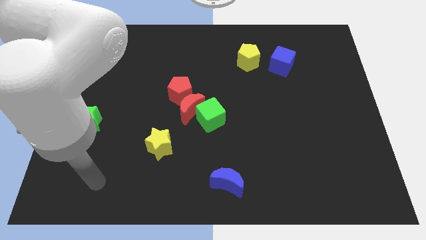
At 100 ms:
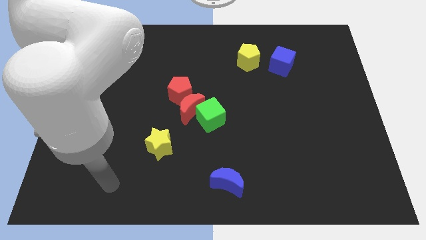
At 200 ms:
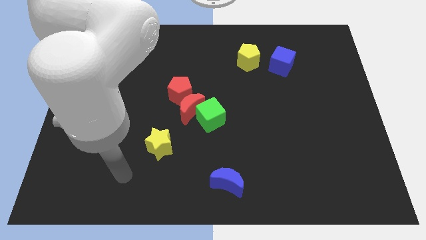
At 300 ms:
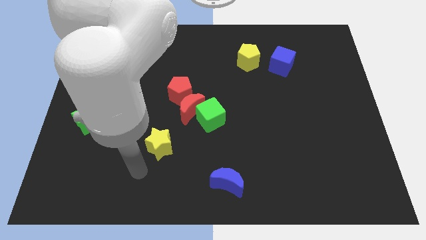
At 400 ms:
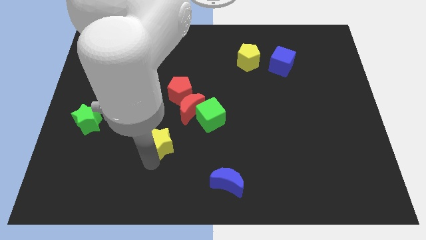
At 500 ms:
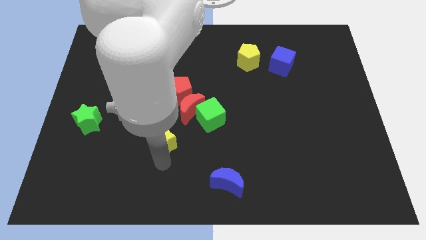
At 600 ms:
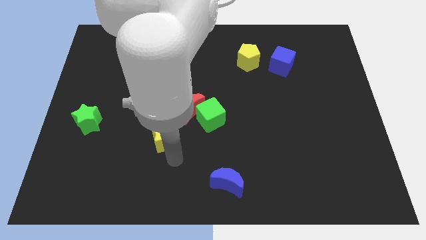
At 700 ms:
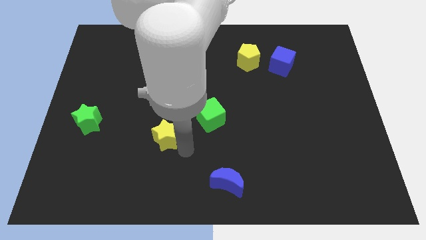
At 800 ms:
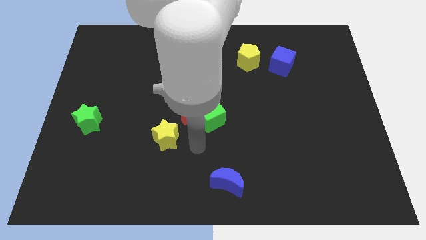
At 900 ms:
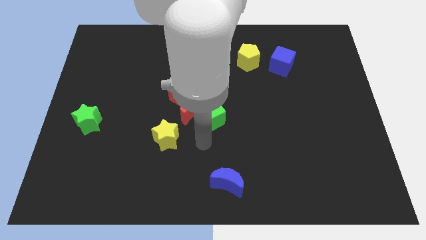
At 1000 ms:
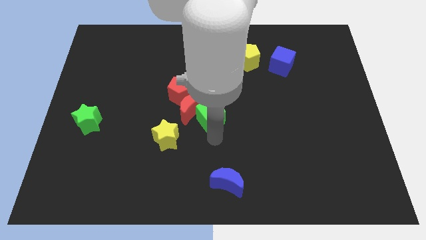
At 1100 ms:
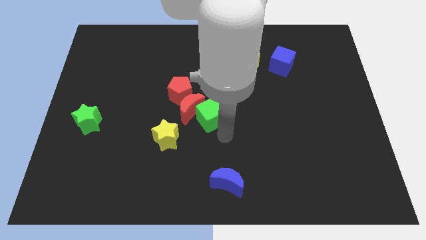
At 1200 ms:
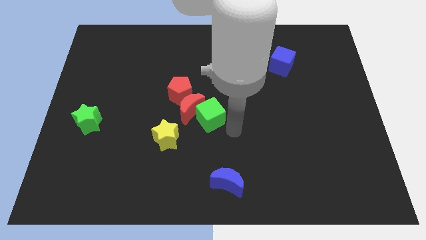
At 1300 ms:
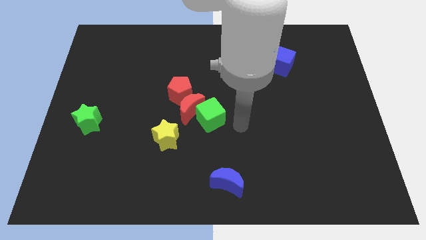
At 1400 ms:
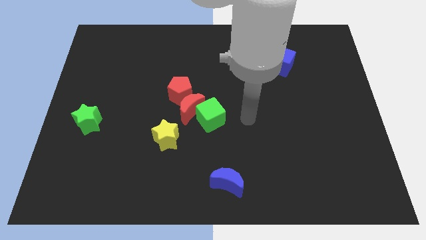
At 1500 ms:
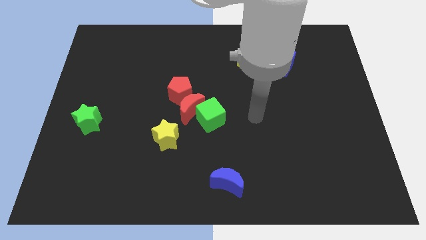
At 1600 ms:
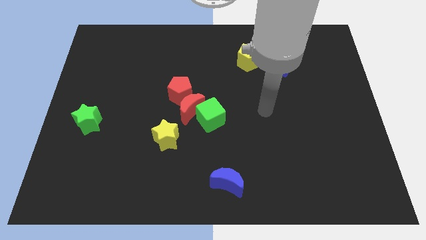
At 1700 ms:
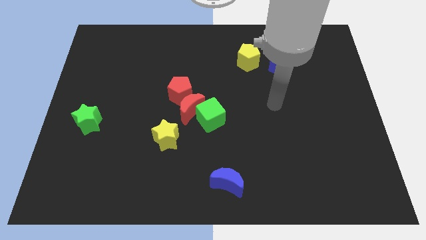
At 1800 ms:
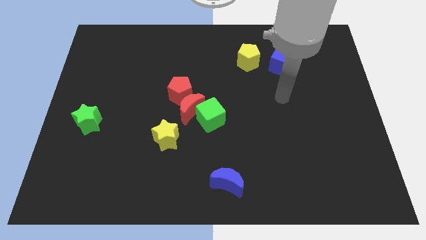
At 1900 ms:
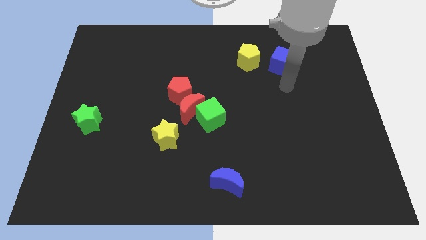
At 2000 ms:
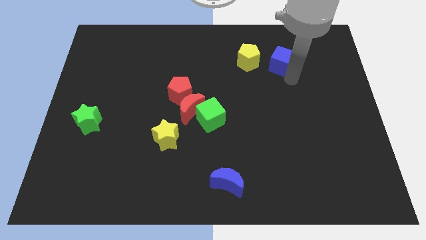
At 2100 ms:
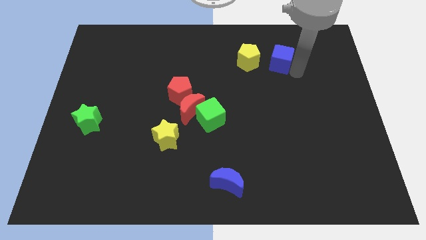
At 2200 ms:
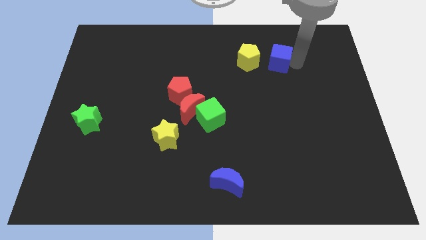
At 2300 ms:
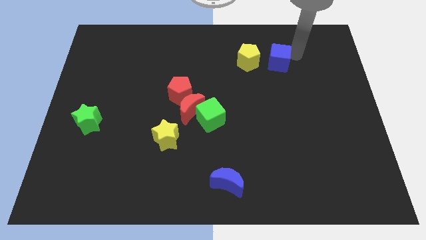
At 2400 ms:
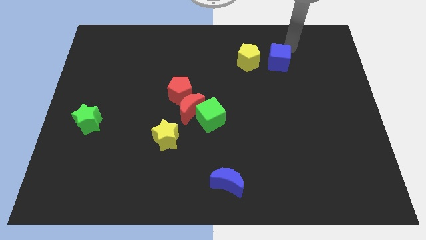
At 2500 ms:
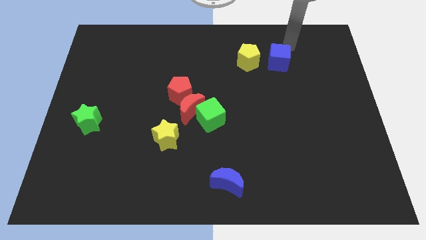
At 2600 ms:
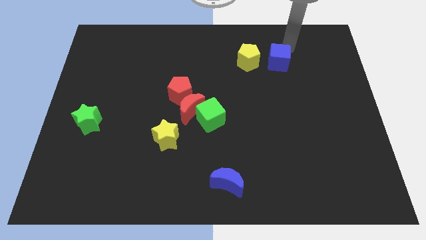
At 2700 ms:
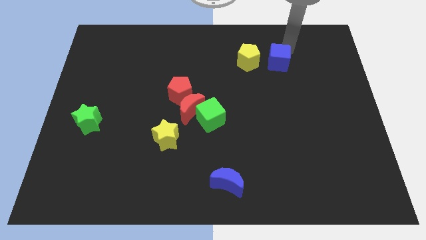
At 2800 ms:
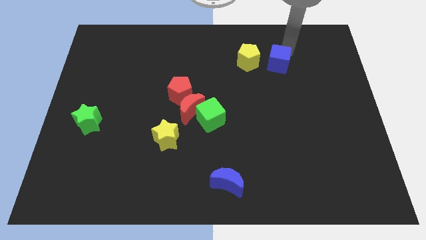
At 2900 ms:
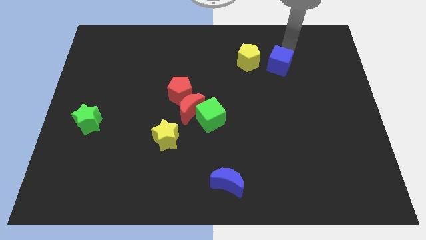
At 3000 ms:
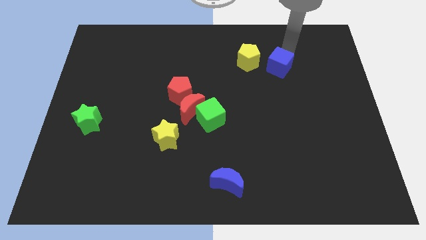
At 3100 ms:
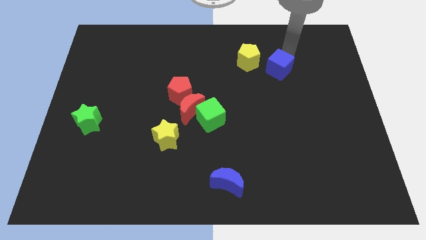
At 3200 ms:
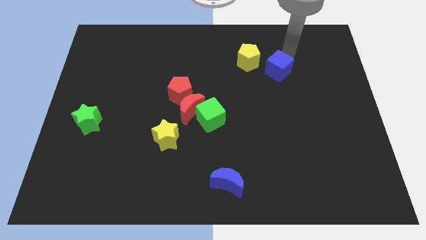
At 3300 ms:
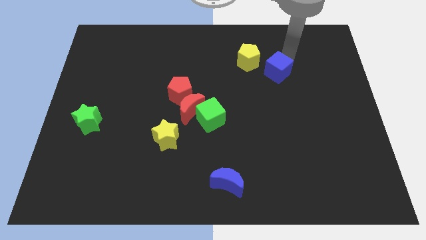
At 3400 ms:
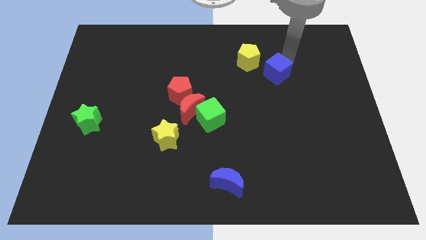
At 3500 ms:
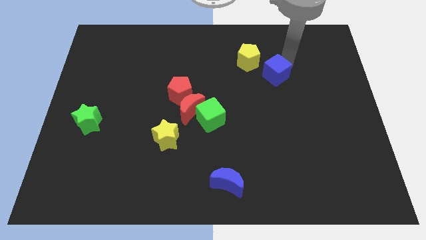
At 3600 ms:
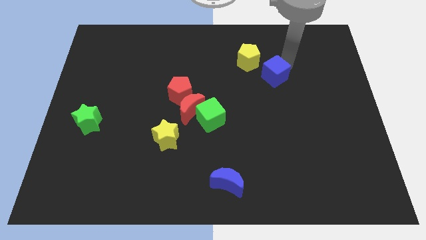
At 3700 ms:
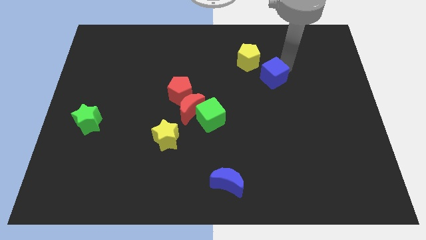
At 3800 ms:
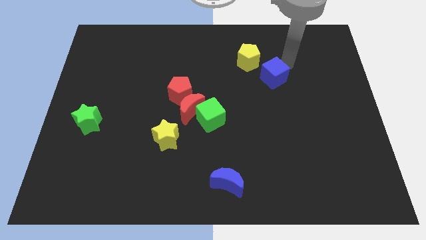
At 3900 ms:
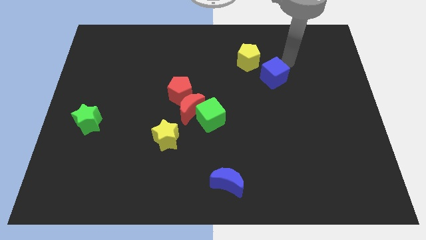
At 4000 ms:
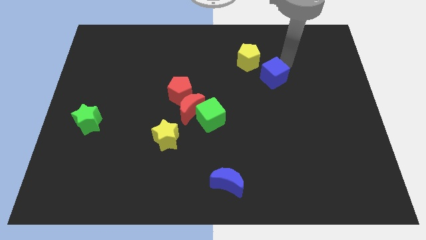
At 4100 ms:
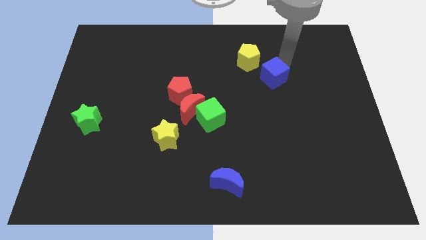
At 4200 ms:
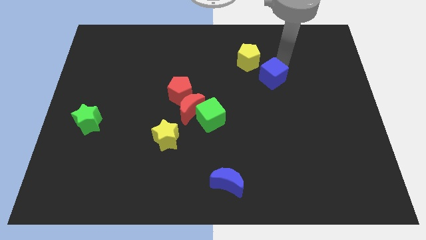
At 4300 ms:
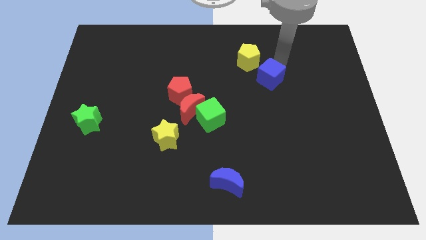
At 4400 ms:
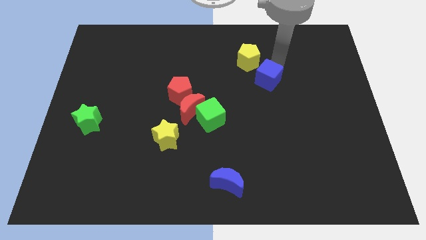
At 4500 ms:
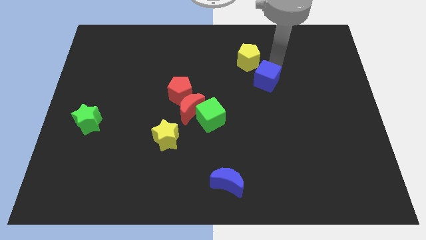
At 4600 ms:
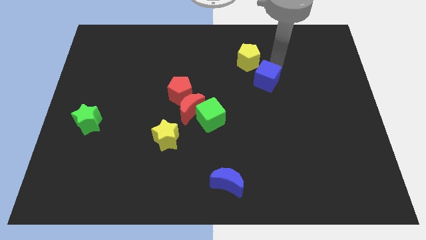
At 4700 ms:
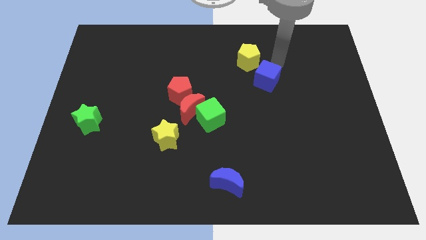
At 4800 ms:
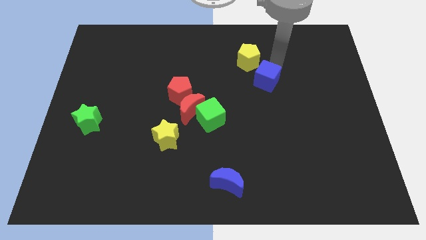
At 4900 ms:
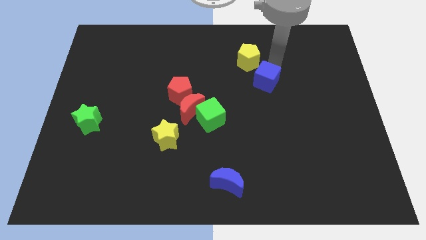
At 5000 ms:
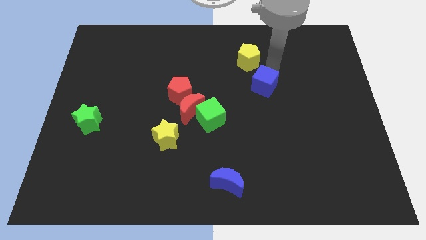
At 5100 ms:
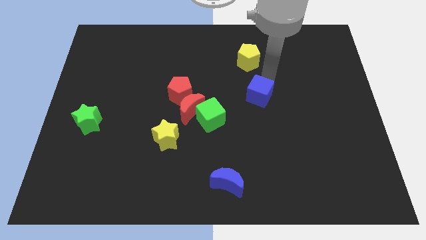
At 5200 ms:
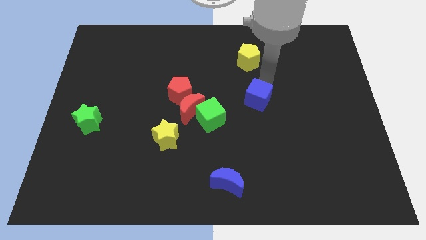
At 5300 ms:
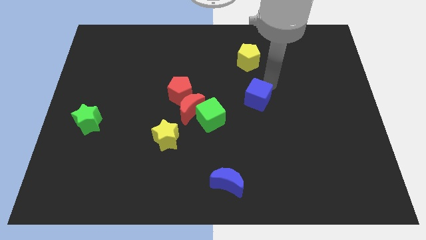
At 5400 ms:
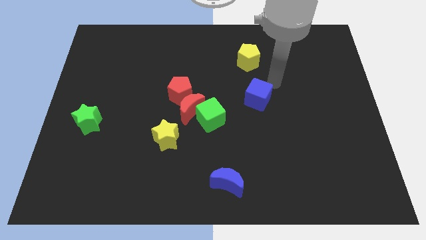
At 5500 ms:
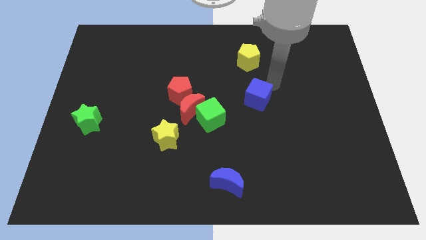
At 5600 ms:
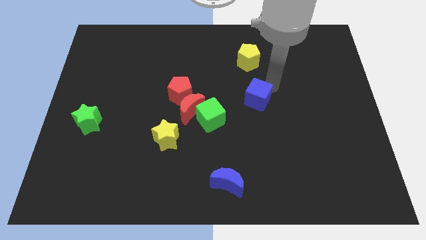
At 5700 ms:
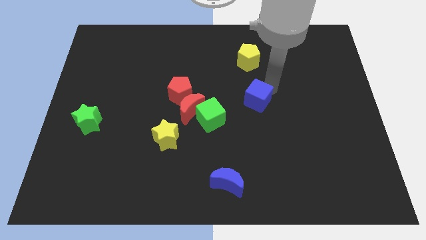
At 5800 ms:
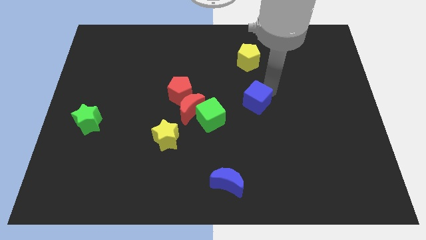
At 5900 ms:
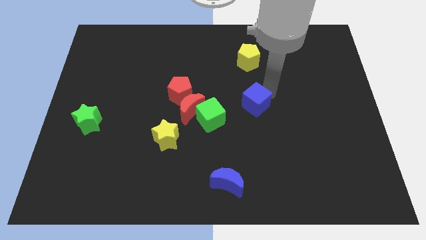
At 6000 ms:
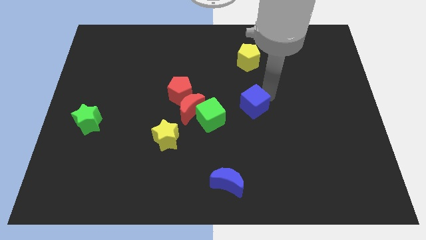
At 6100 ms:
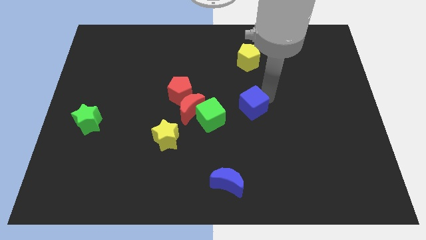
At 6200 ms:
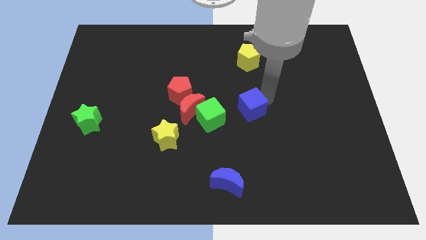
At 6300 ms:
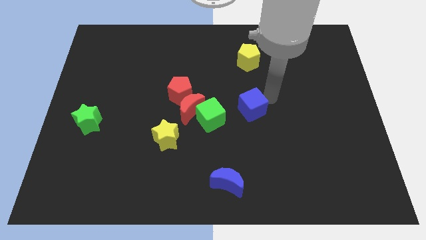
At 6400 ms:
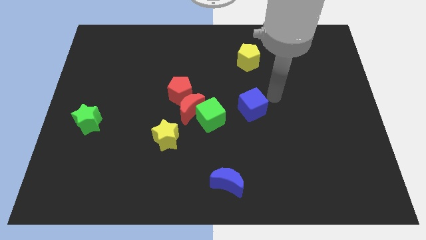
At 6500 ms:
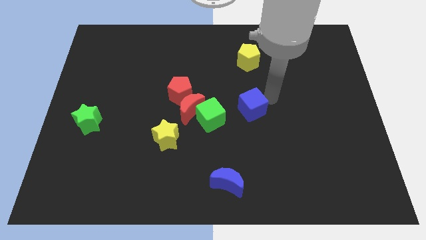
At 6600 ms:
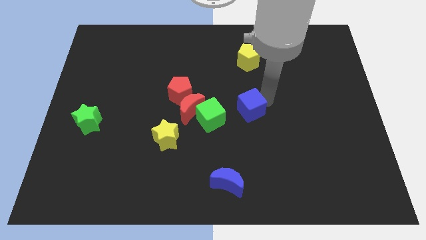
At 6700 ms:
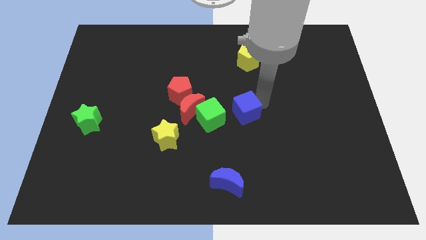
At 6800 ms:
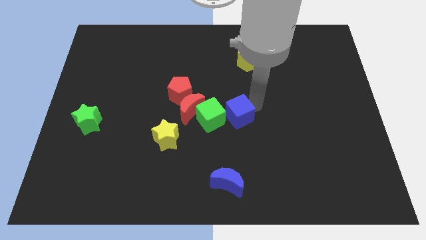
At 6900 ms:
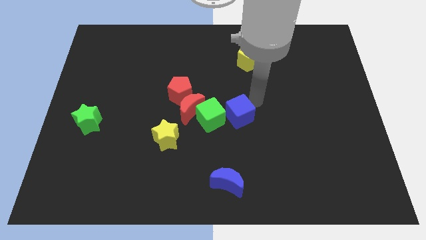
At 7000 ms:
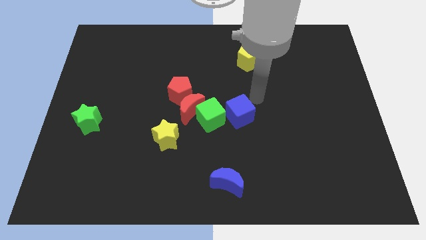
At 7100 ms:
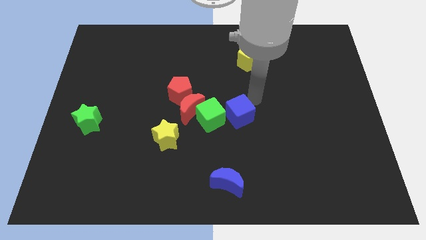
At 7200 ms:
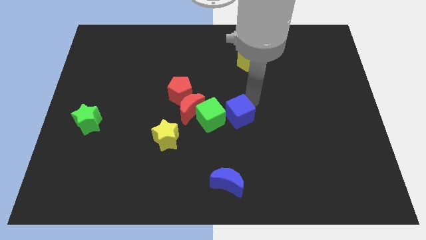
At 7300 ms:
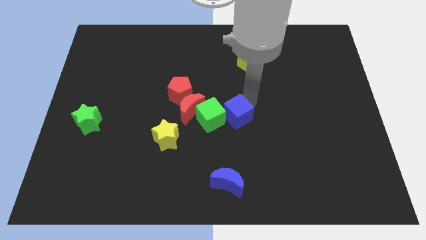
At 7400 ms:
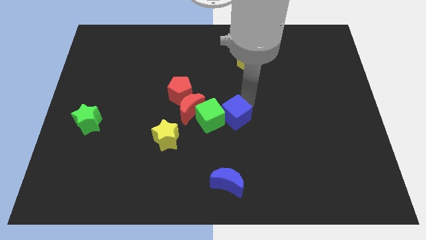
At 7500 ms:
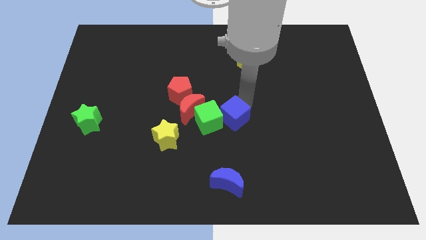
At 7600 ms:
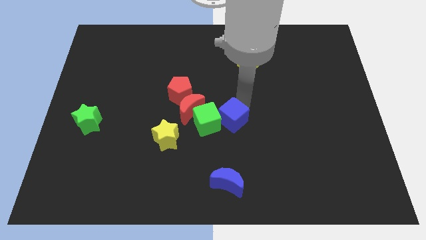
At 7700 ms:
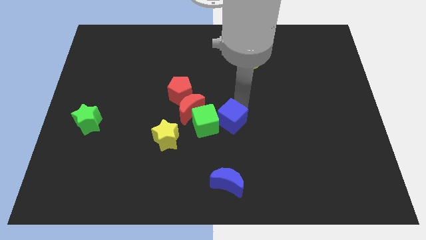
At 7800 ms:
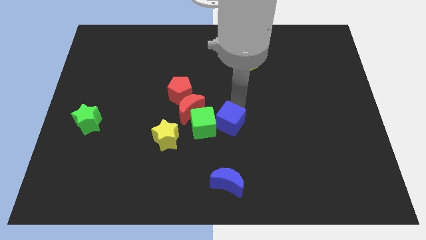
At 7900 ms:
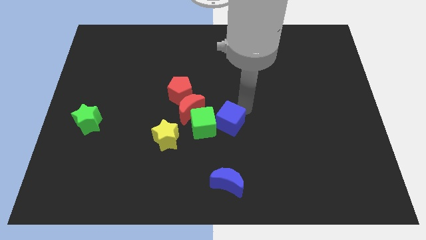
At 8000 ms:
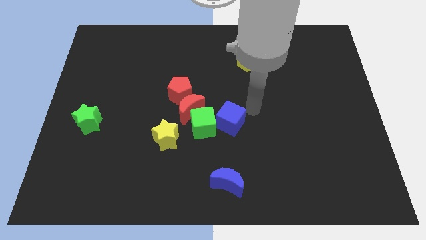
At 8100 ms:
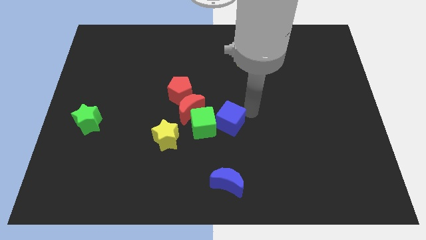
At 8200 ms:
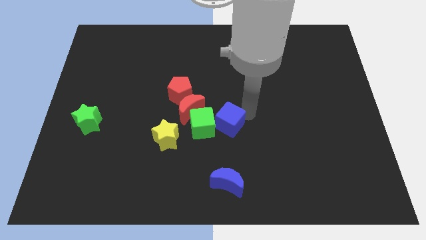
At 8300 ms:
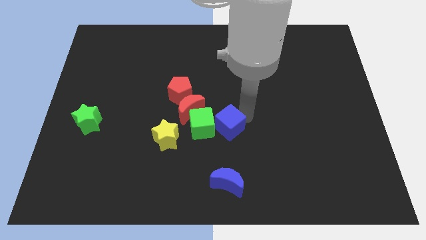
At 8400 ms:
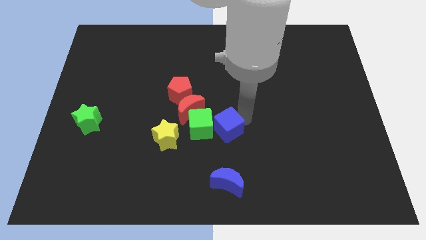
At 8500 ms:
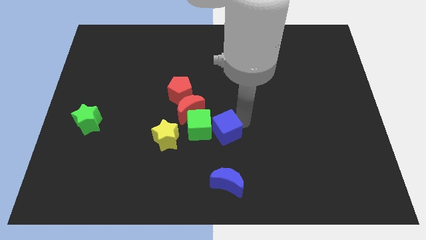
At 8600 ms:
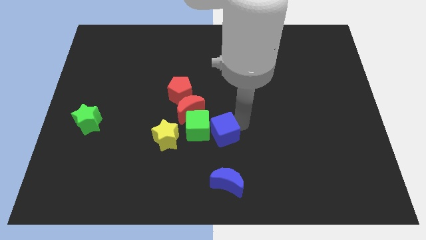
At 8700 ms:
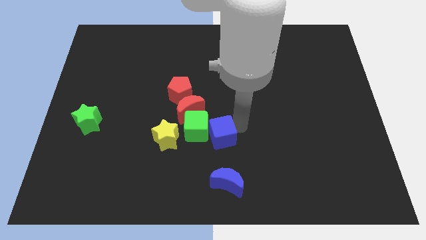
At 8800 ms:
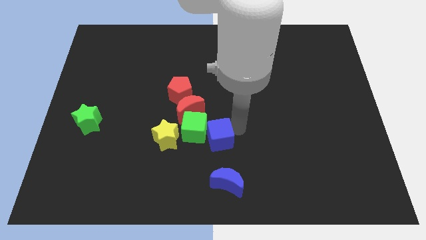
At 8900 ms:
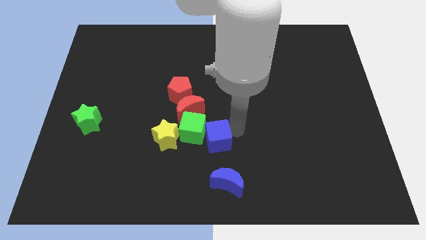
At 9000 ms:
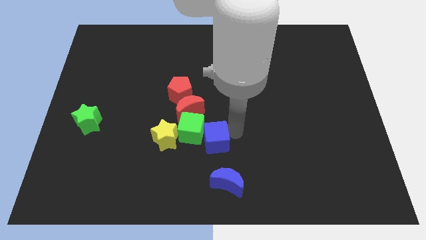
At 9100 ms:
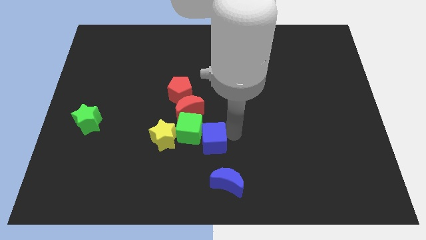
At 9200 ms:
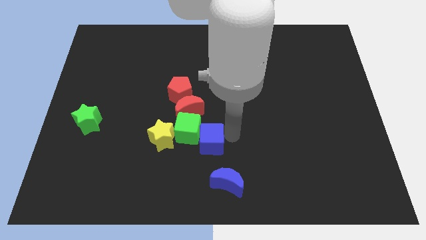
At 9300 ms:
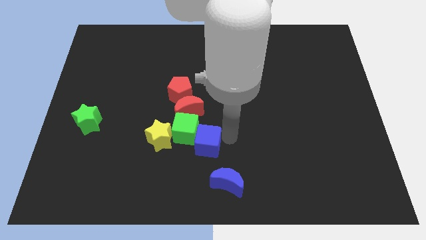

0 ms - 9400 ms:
slide the blue cube below the red moon
